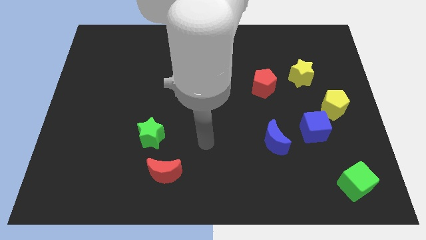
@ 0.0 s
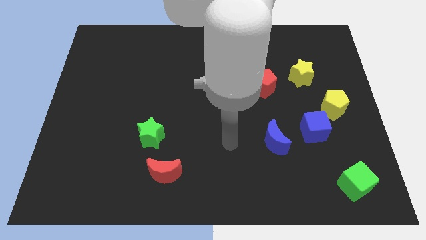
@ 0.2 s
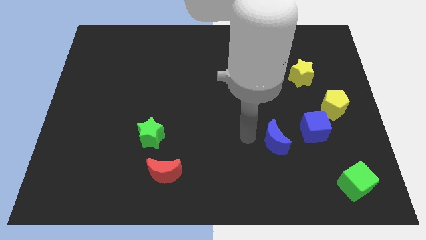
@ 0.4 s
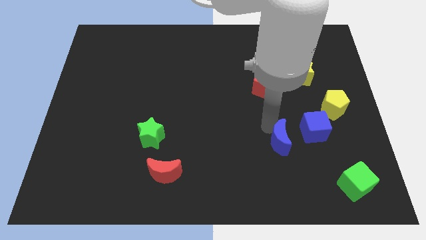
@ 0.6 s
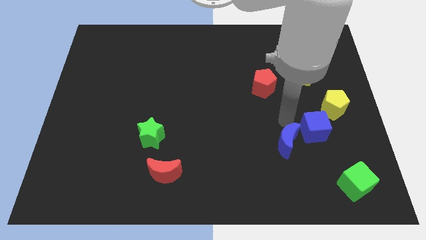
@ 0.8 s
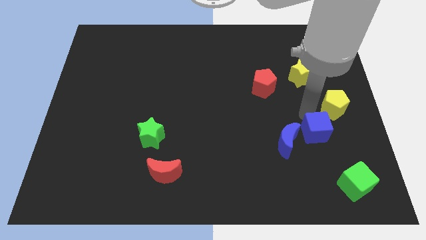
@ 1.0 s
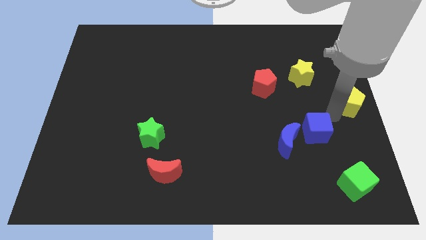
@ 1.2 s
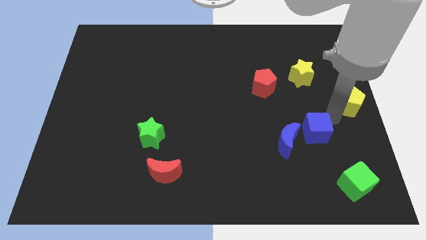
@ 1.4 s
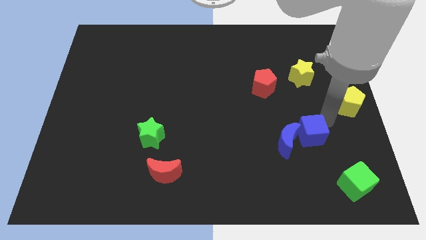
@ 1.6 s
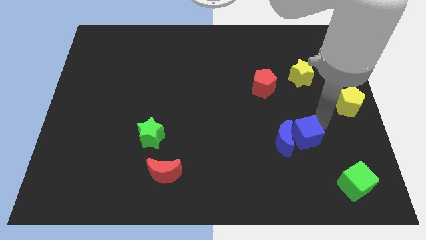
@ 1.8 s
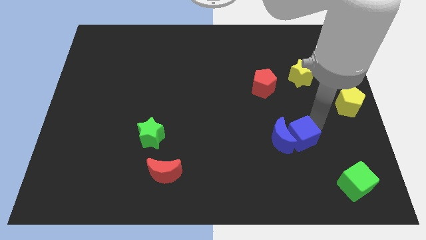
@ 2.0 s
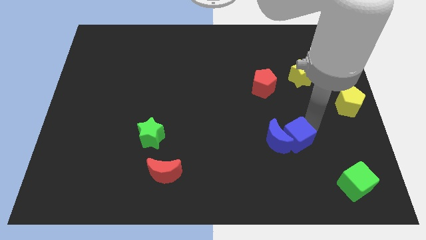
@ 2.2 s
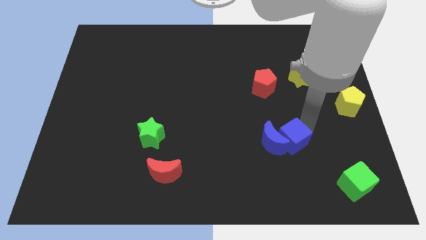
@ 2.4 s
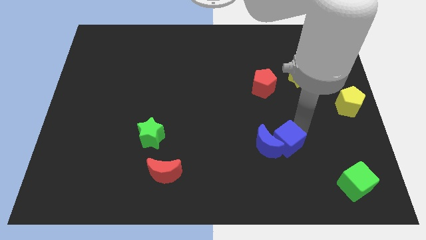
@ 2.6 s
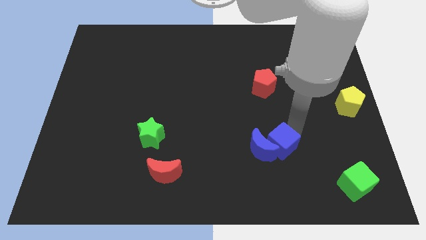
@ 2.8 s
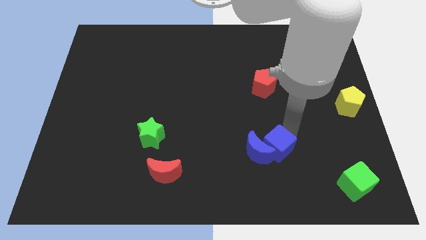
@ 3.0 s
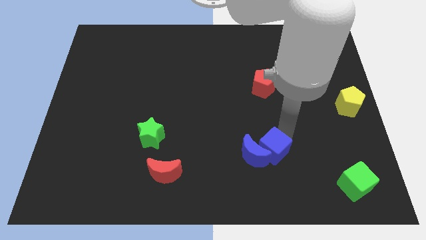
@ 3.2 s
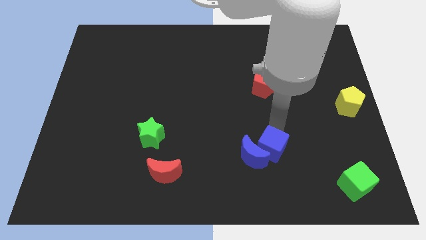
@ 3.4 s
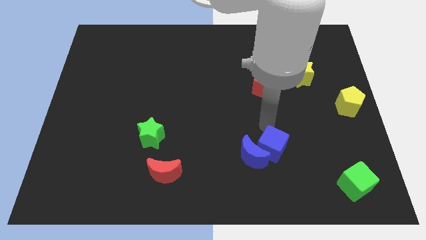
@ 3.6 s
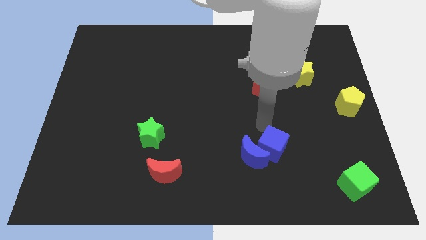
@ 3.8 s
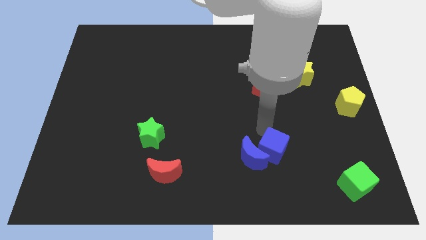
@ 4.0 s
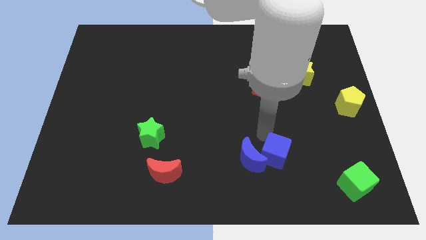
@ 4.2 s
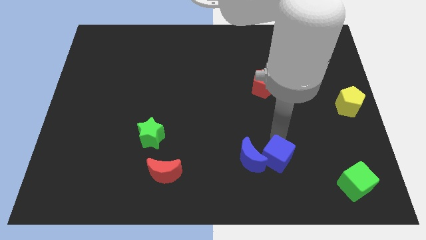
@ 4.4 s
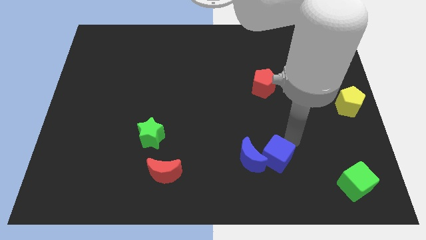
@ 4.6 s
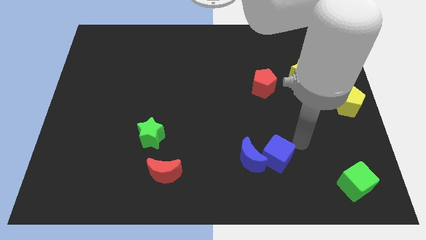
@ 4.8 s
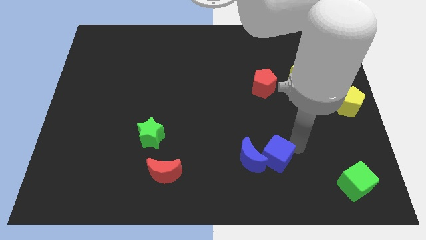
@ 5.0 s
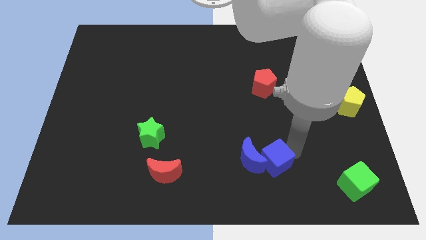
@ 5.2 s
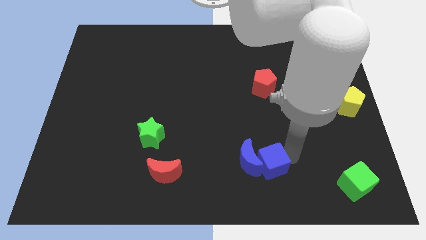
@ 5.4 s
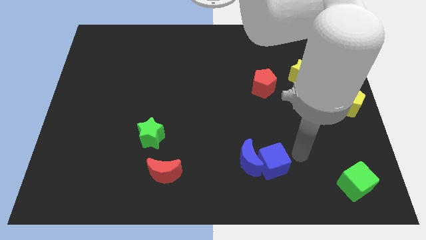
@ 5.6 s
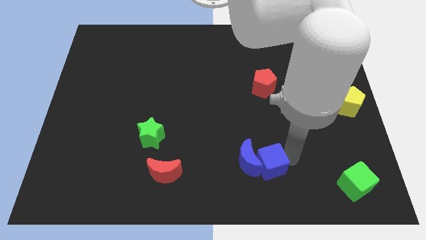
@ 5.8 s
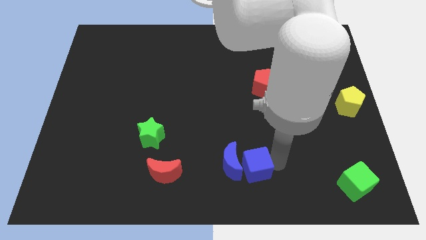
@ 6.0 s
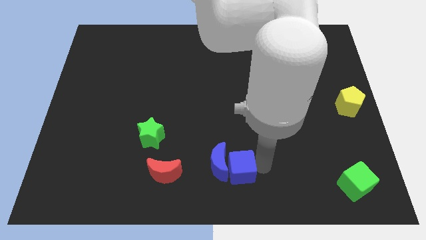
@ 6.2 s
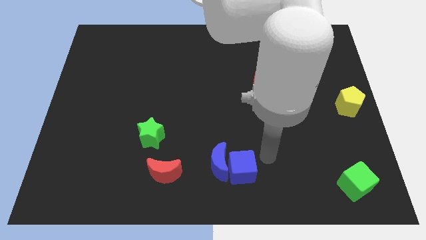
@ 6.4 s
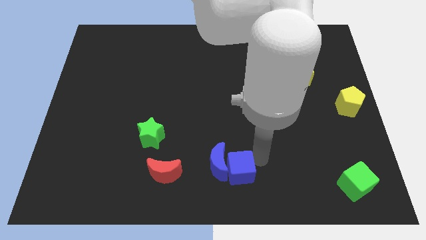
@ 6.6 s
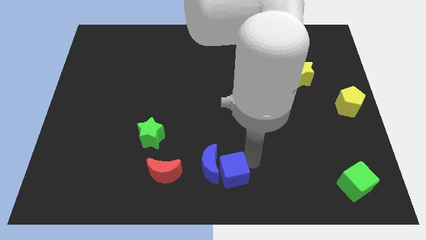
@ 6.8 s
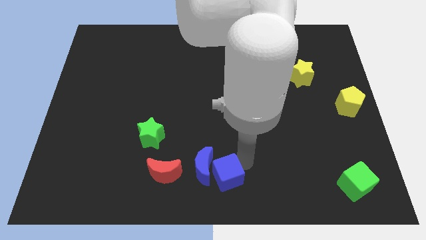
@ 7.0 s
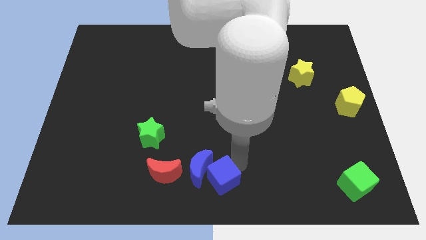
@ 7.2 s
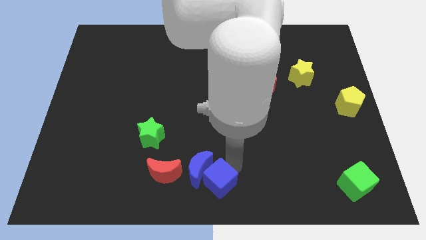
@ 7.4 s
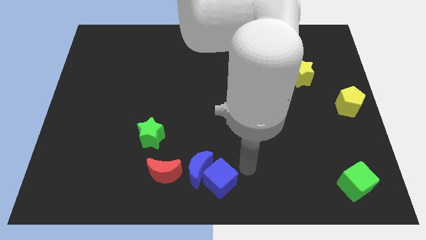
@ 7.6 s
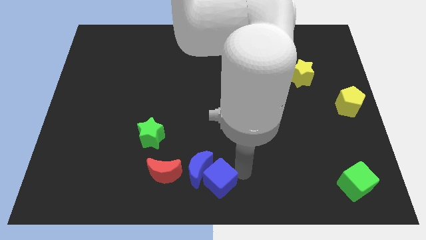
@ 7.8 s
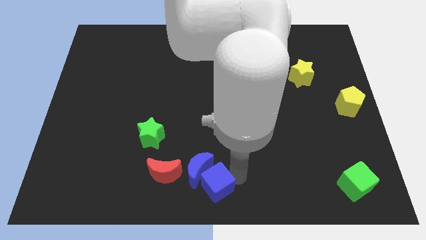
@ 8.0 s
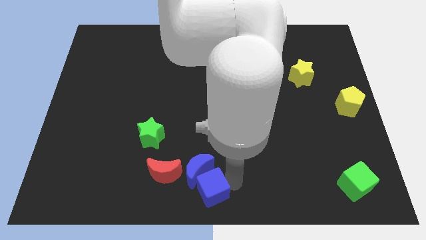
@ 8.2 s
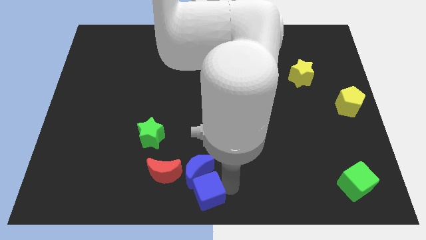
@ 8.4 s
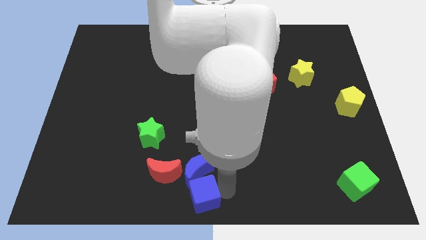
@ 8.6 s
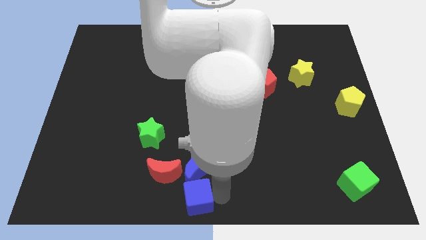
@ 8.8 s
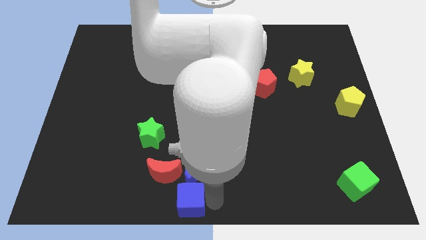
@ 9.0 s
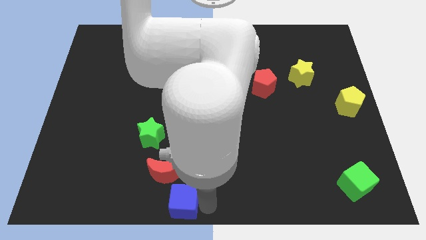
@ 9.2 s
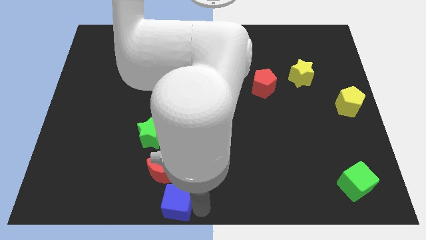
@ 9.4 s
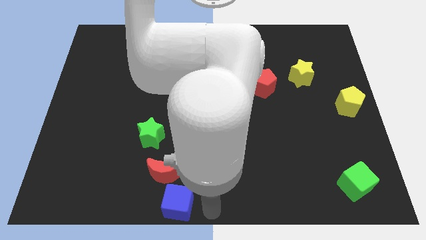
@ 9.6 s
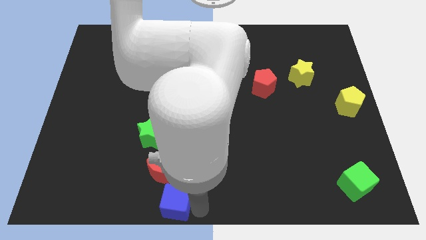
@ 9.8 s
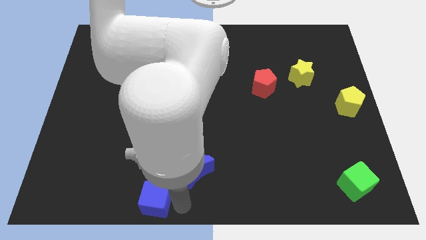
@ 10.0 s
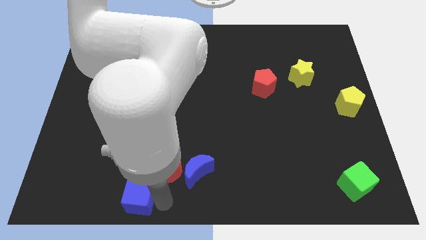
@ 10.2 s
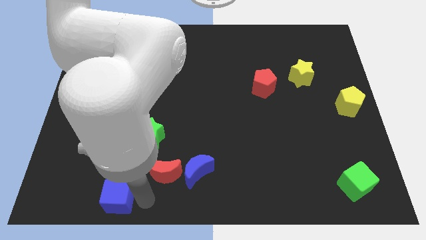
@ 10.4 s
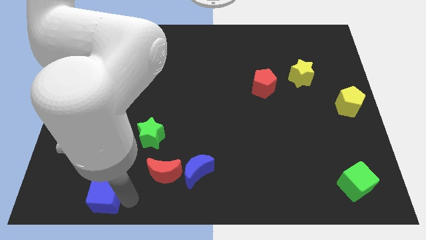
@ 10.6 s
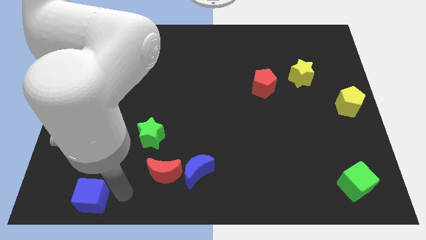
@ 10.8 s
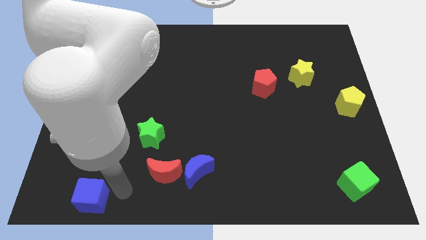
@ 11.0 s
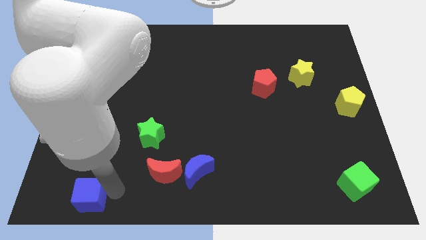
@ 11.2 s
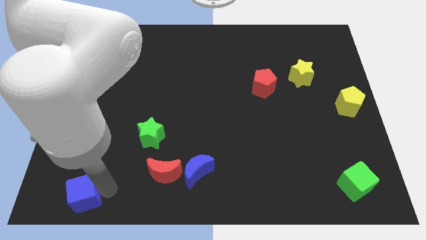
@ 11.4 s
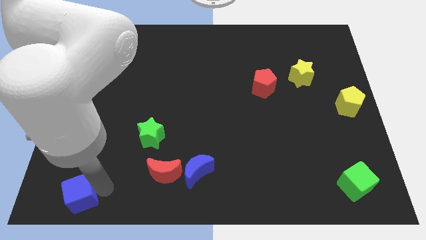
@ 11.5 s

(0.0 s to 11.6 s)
move the blue cube to the bottom left of the board
